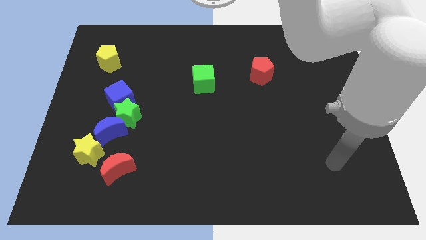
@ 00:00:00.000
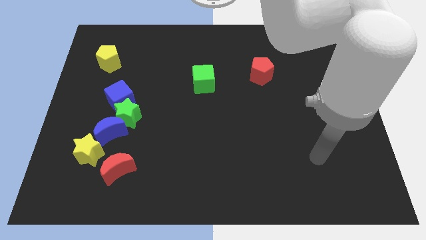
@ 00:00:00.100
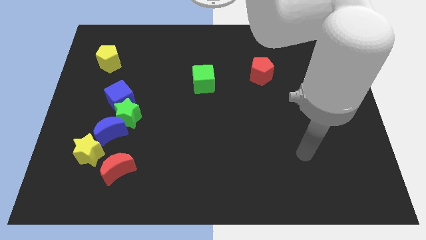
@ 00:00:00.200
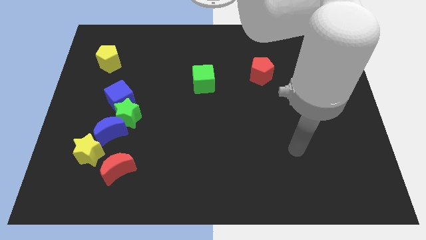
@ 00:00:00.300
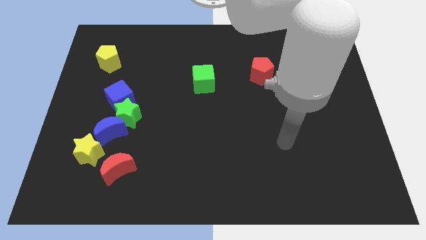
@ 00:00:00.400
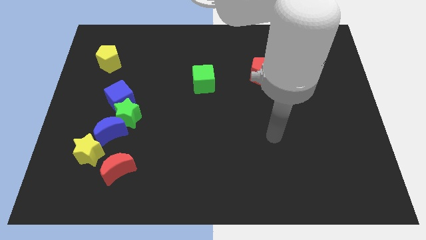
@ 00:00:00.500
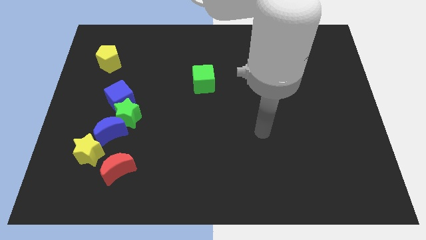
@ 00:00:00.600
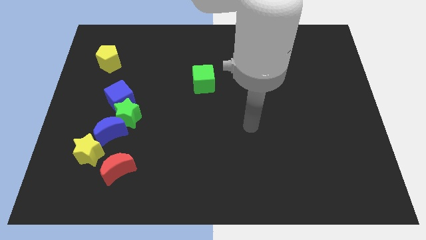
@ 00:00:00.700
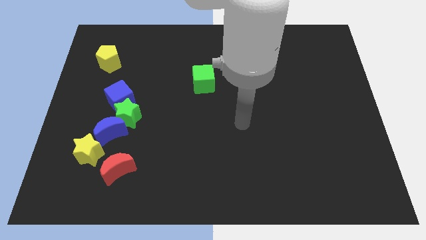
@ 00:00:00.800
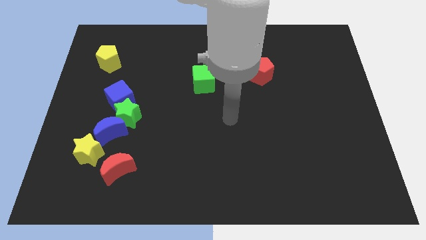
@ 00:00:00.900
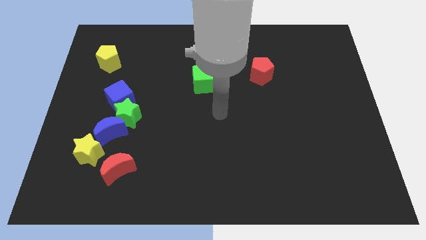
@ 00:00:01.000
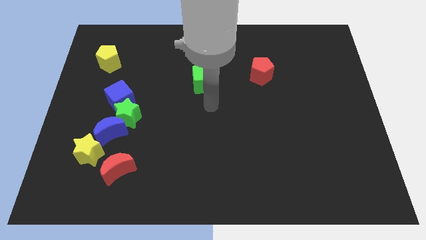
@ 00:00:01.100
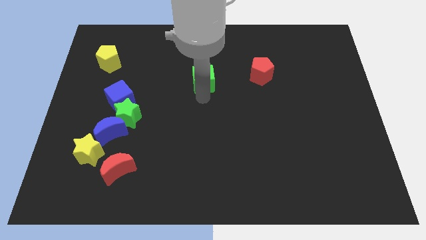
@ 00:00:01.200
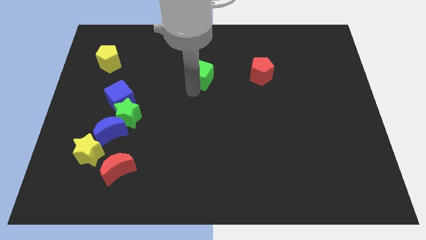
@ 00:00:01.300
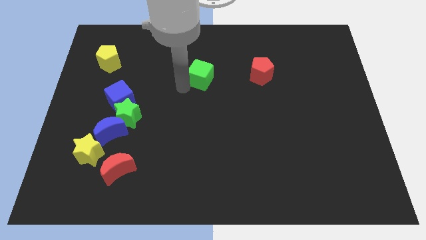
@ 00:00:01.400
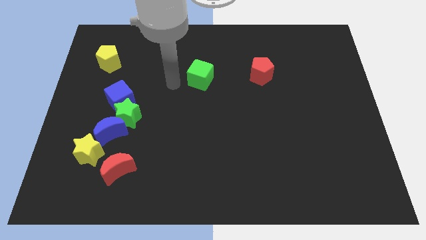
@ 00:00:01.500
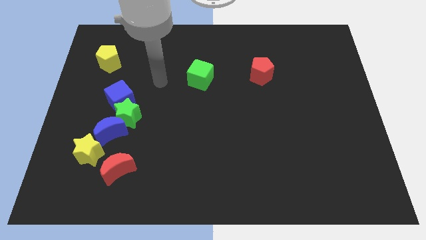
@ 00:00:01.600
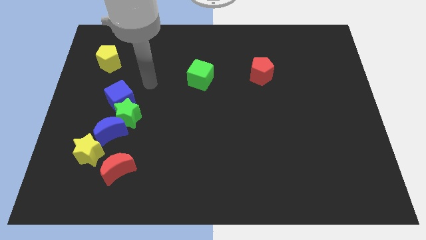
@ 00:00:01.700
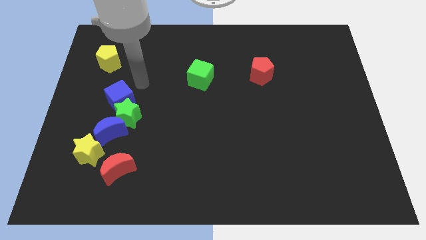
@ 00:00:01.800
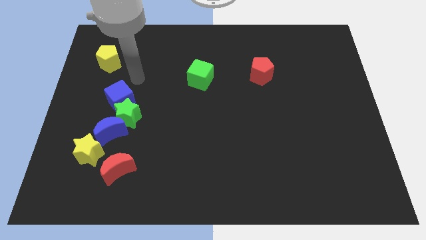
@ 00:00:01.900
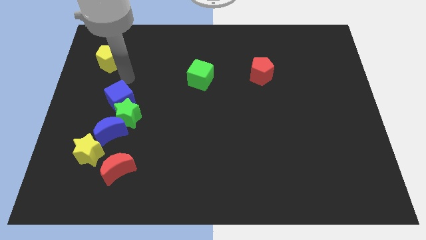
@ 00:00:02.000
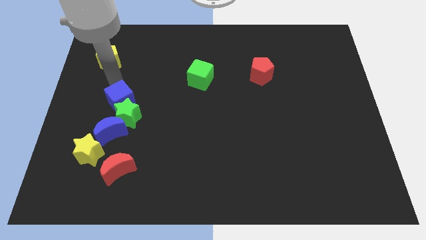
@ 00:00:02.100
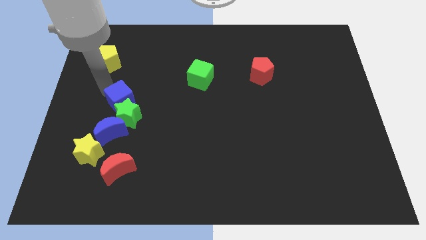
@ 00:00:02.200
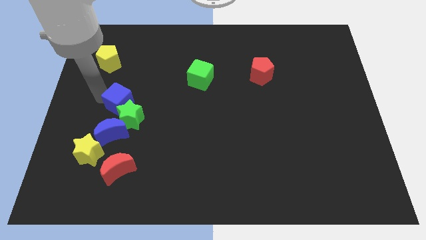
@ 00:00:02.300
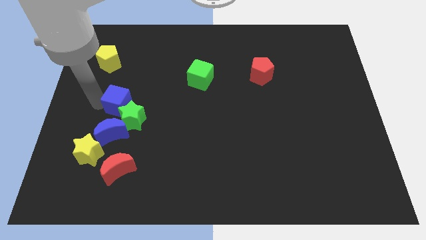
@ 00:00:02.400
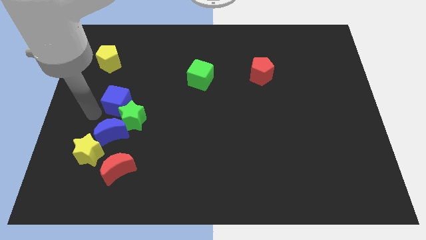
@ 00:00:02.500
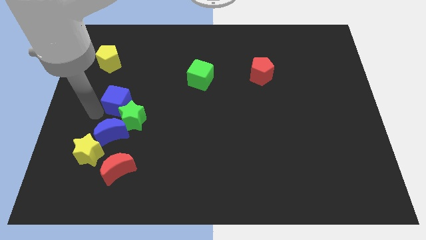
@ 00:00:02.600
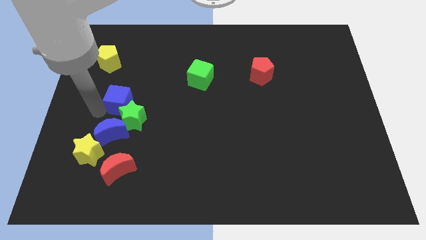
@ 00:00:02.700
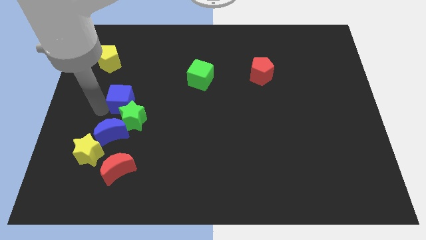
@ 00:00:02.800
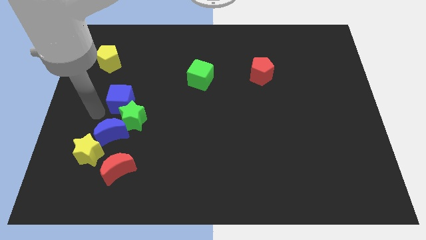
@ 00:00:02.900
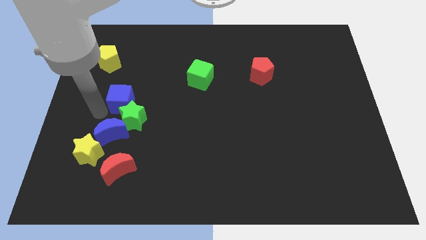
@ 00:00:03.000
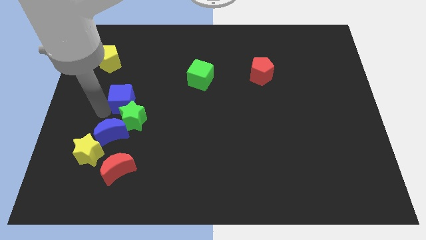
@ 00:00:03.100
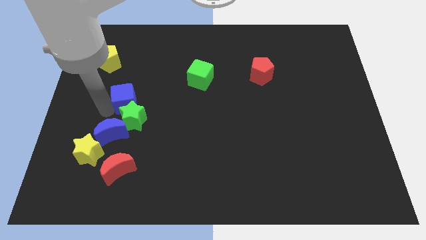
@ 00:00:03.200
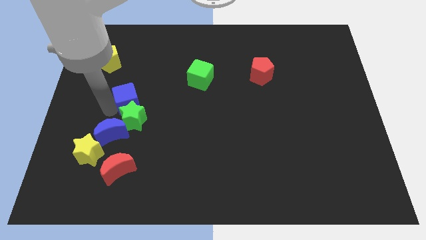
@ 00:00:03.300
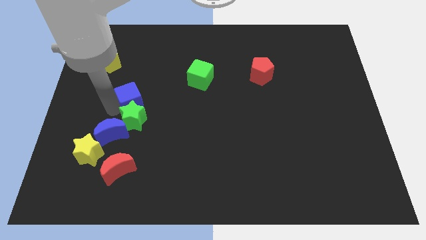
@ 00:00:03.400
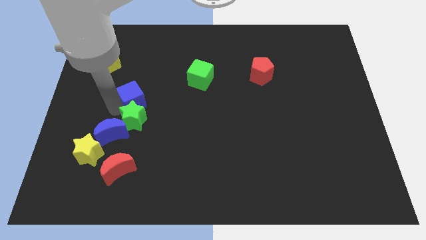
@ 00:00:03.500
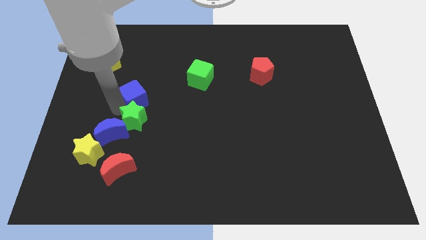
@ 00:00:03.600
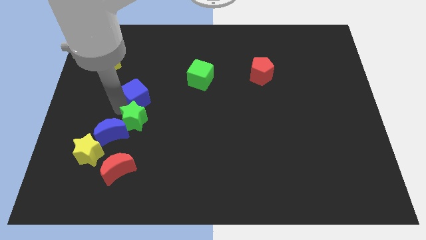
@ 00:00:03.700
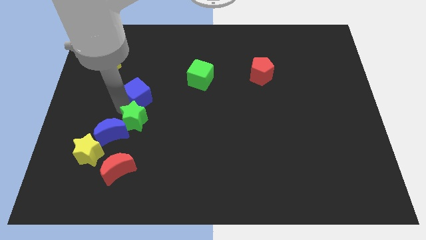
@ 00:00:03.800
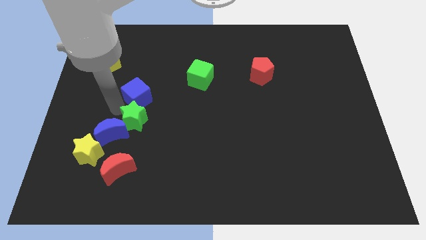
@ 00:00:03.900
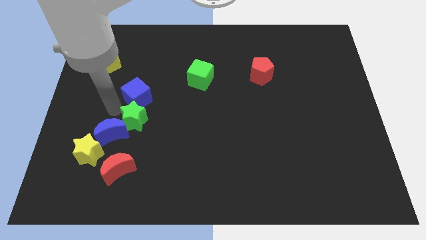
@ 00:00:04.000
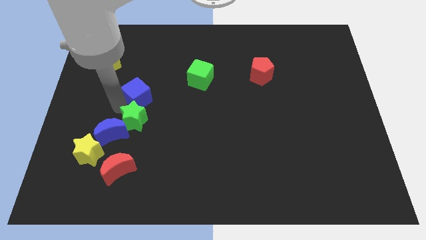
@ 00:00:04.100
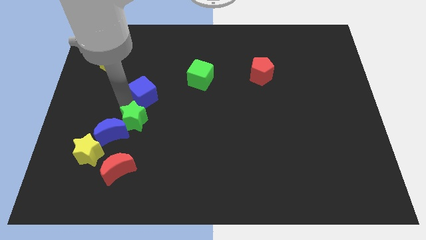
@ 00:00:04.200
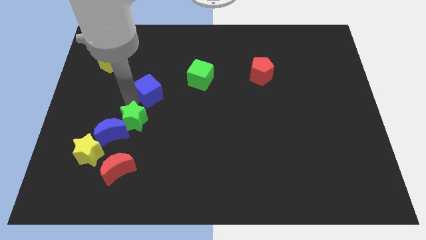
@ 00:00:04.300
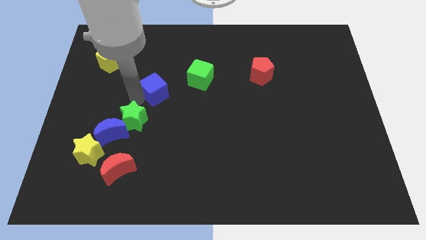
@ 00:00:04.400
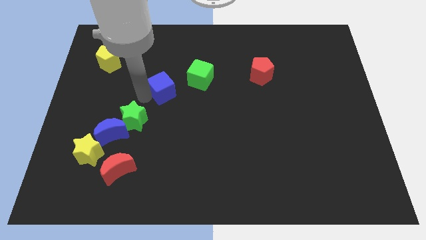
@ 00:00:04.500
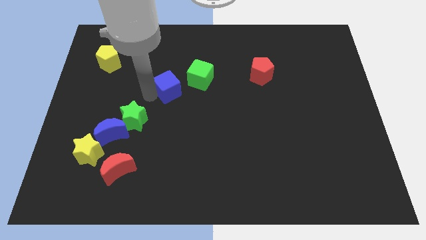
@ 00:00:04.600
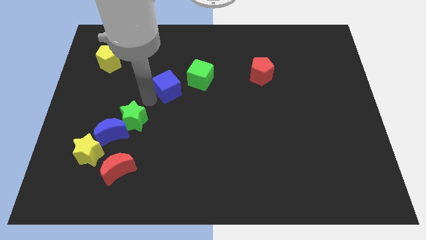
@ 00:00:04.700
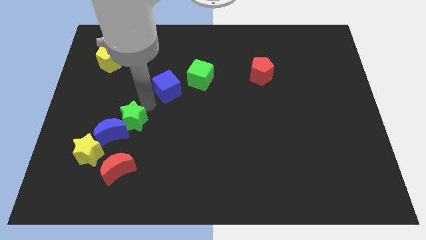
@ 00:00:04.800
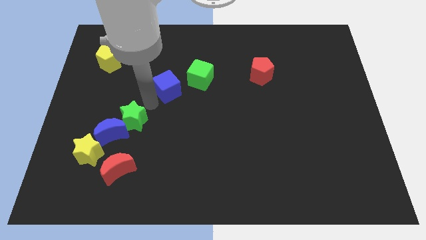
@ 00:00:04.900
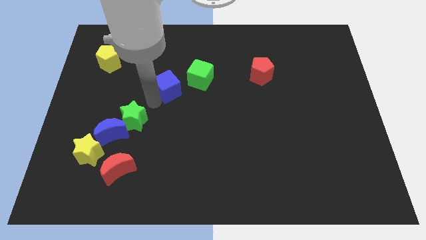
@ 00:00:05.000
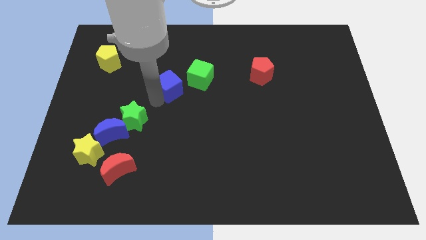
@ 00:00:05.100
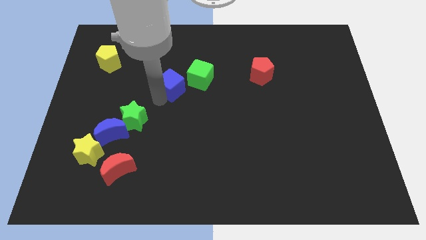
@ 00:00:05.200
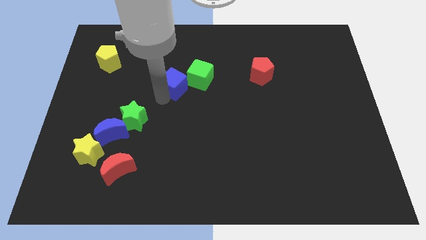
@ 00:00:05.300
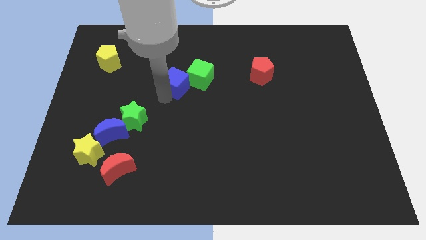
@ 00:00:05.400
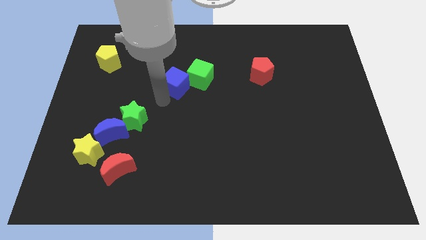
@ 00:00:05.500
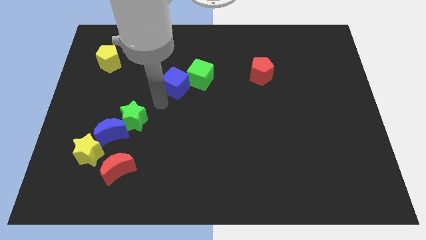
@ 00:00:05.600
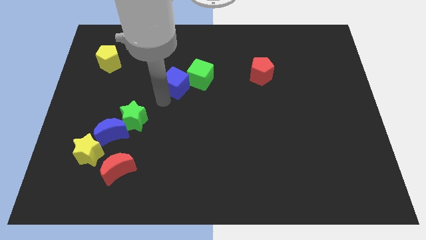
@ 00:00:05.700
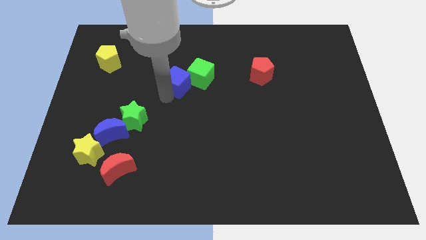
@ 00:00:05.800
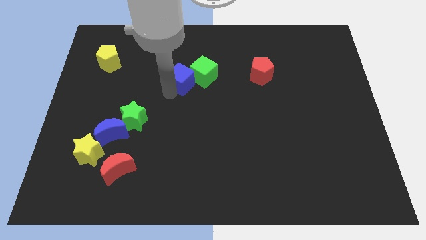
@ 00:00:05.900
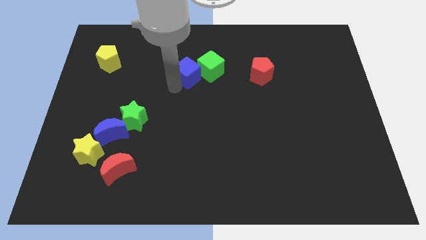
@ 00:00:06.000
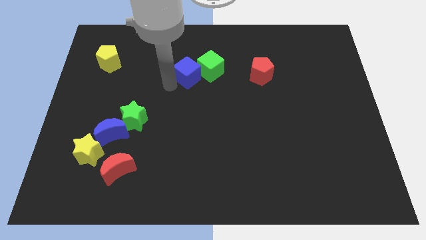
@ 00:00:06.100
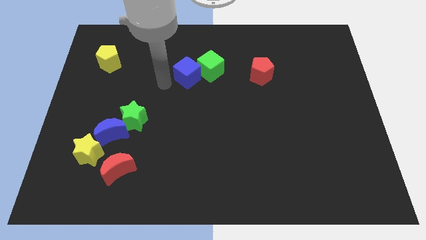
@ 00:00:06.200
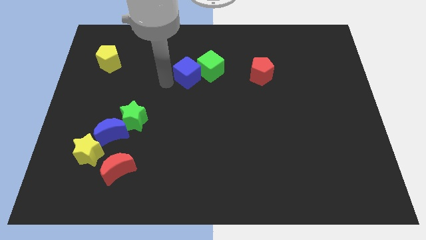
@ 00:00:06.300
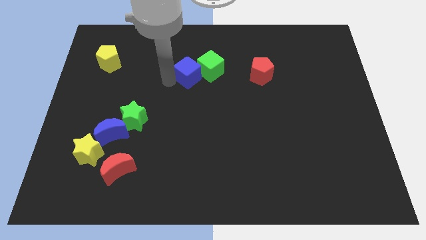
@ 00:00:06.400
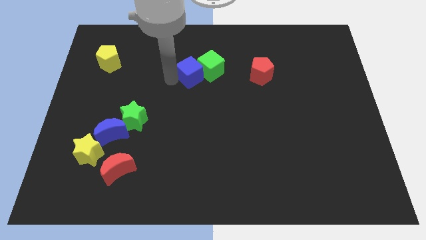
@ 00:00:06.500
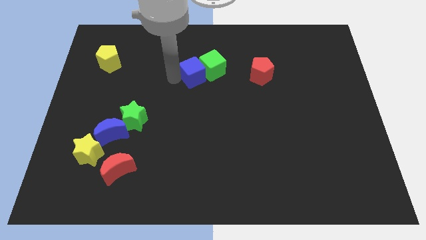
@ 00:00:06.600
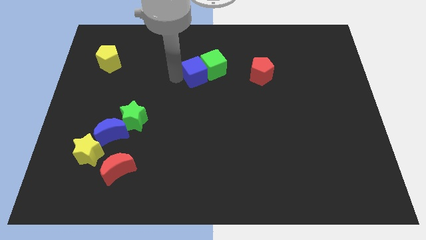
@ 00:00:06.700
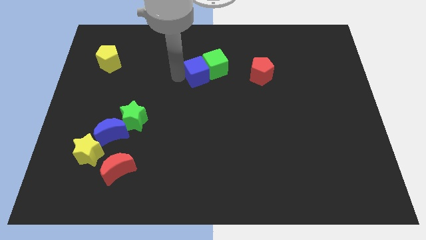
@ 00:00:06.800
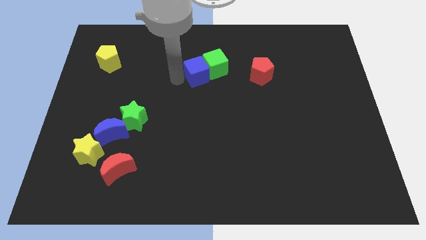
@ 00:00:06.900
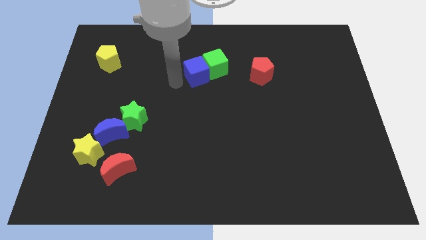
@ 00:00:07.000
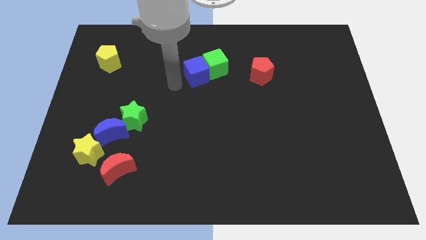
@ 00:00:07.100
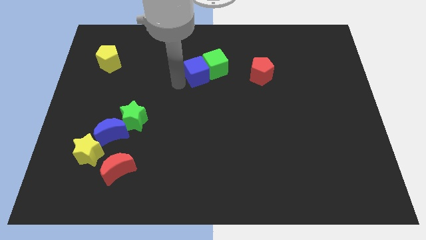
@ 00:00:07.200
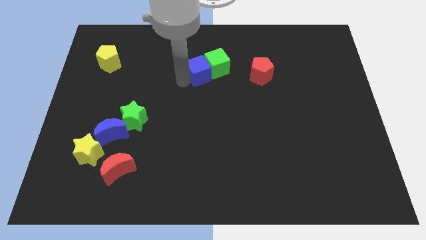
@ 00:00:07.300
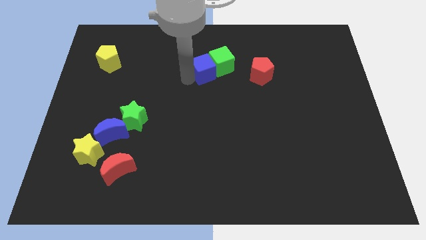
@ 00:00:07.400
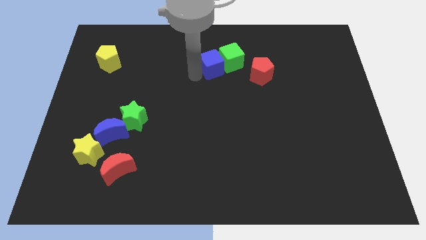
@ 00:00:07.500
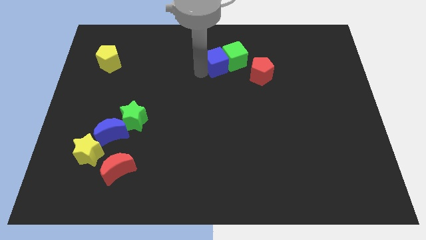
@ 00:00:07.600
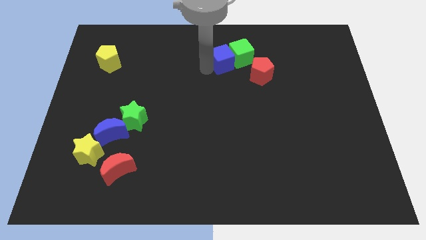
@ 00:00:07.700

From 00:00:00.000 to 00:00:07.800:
move the blue cube diagonally up and to the left of the red pentagon
